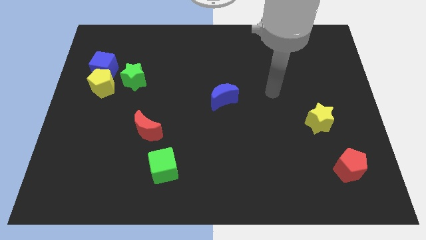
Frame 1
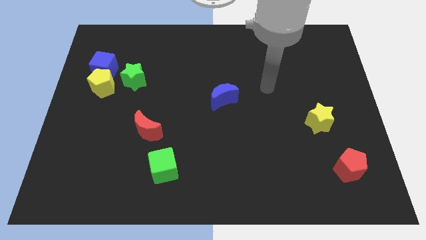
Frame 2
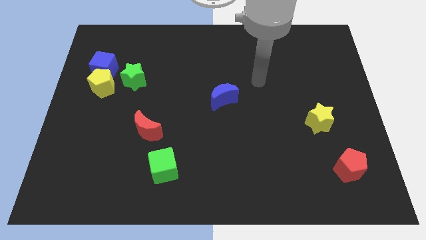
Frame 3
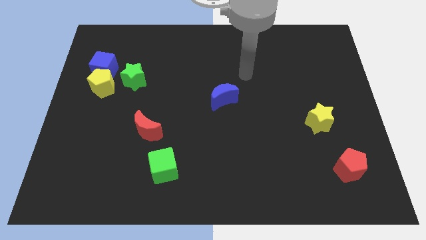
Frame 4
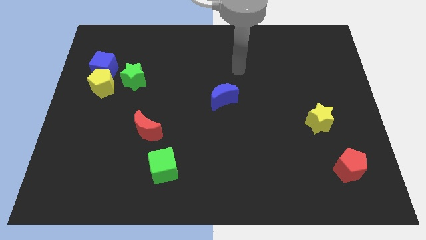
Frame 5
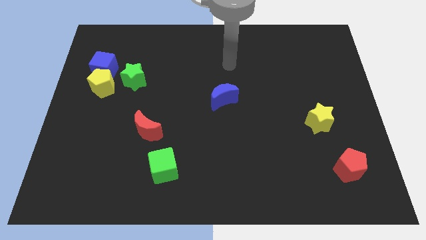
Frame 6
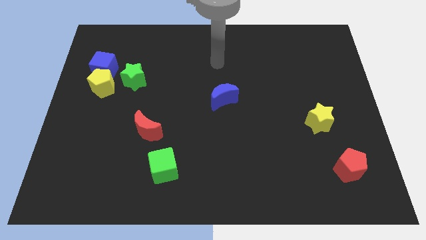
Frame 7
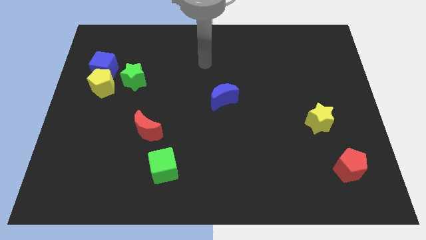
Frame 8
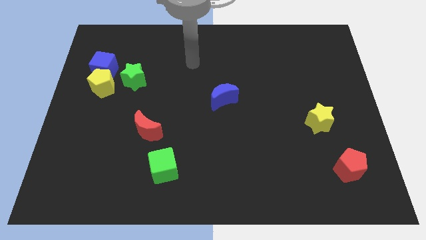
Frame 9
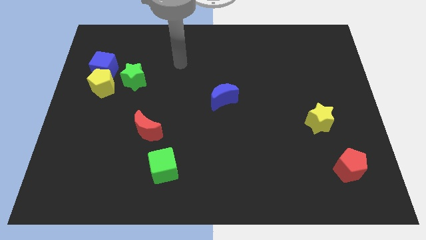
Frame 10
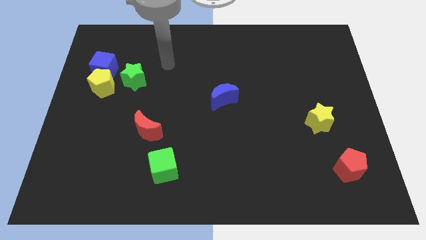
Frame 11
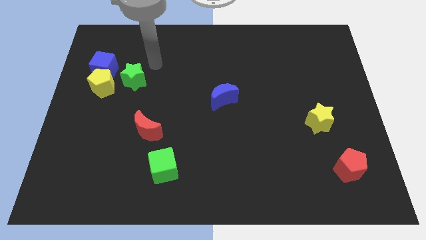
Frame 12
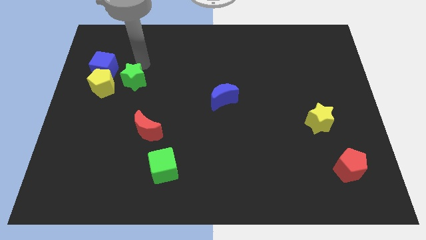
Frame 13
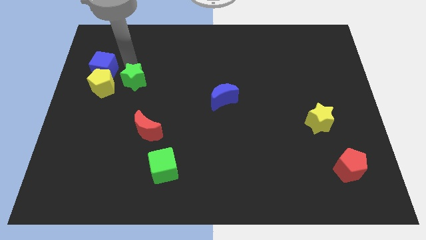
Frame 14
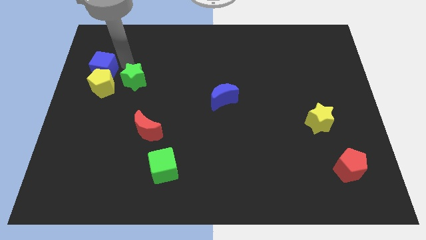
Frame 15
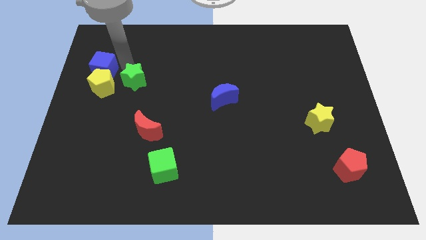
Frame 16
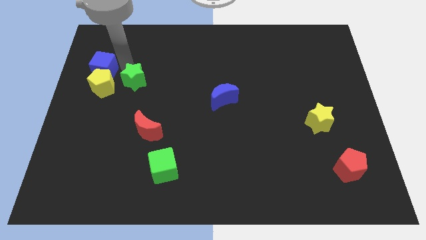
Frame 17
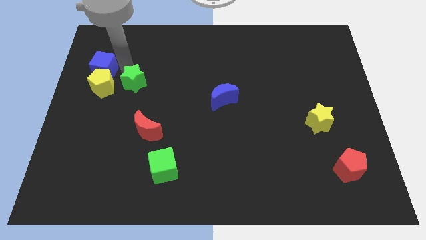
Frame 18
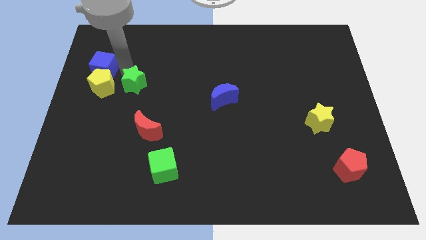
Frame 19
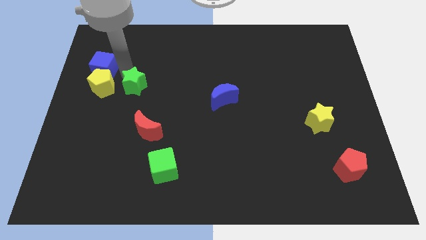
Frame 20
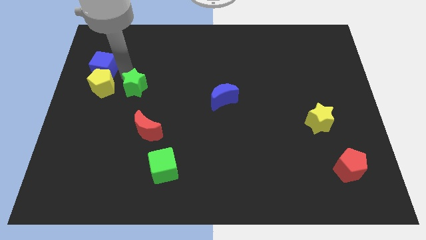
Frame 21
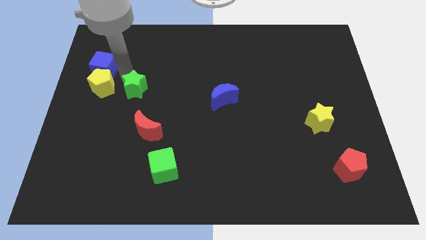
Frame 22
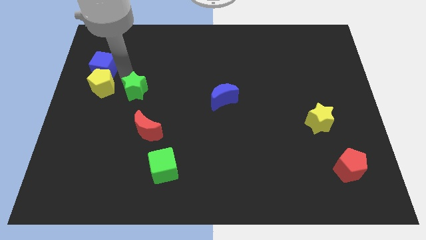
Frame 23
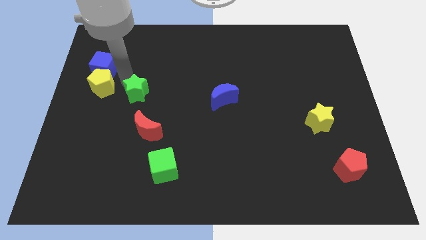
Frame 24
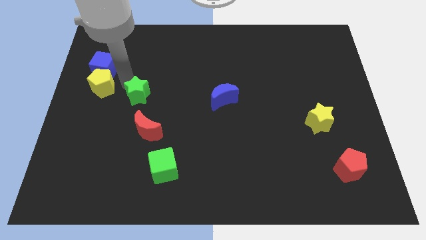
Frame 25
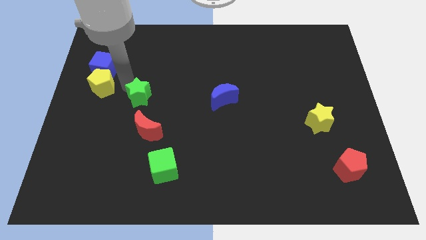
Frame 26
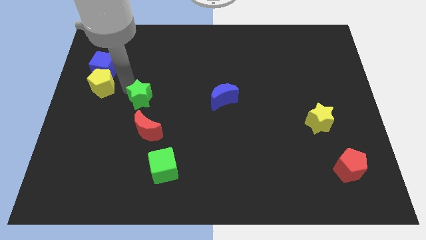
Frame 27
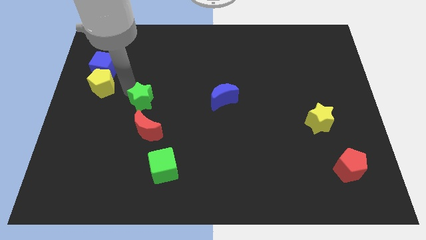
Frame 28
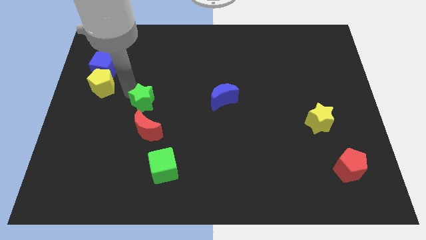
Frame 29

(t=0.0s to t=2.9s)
slightly slide the green star downwards and right diagonally

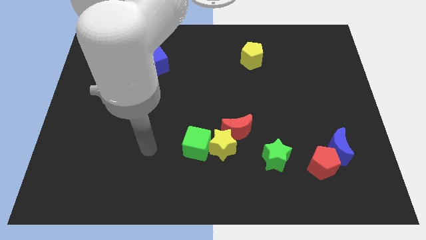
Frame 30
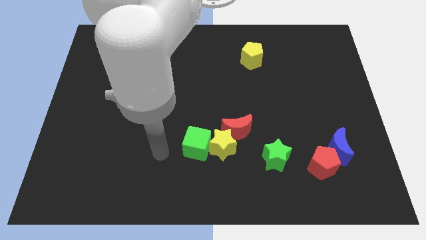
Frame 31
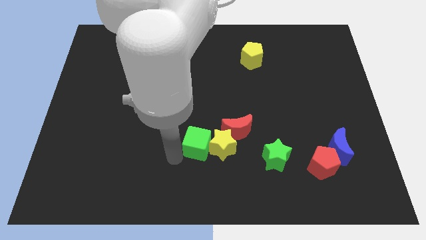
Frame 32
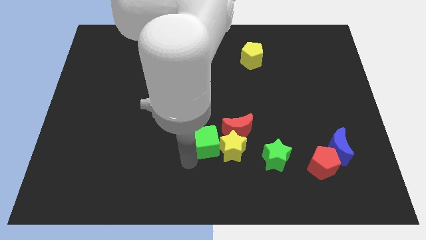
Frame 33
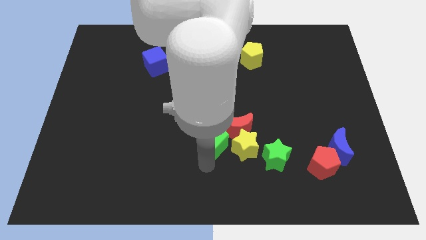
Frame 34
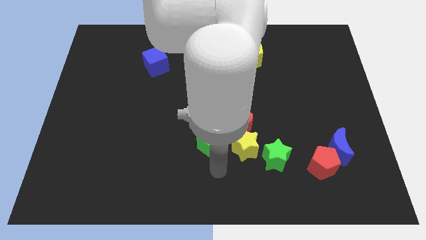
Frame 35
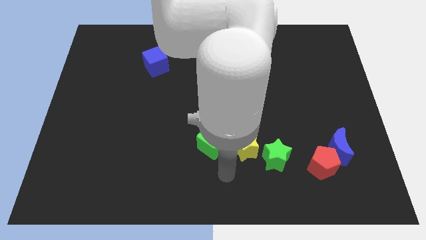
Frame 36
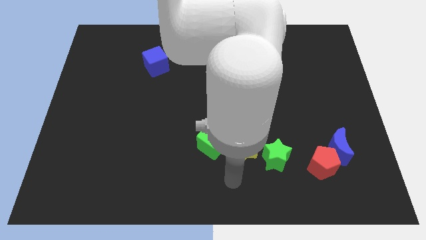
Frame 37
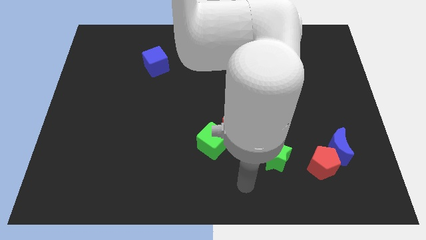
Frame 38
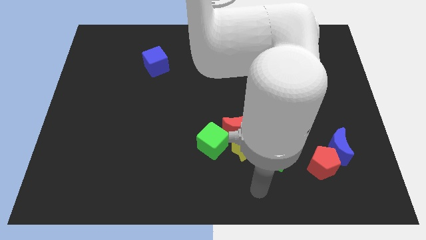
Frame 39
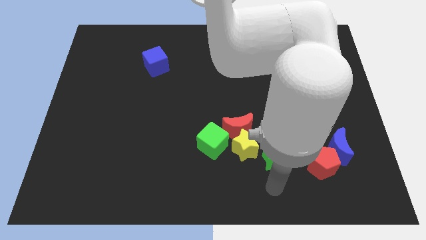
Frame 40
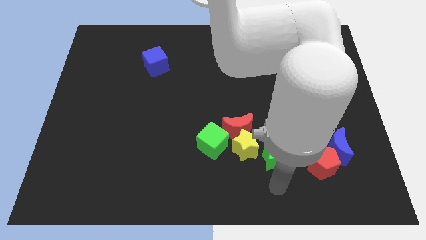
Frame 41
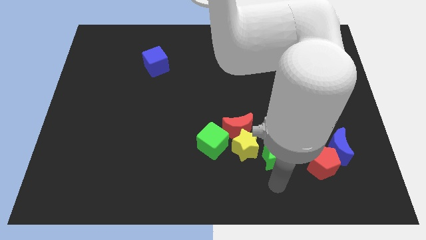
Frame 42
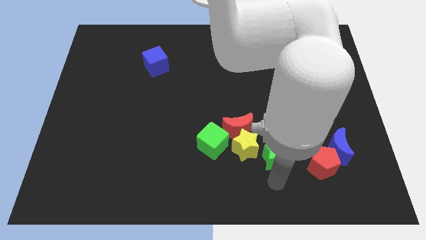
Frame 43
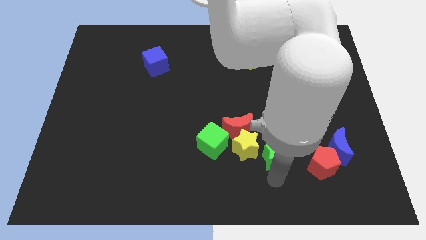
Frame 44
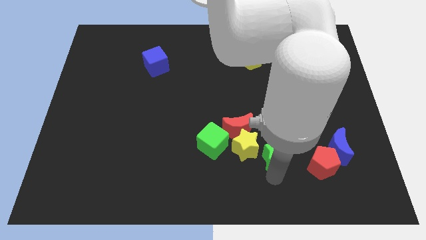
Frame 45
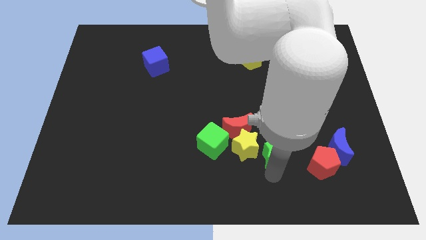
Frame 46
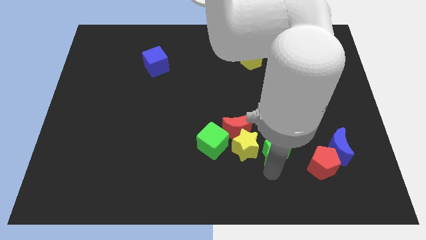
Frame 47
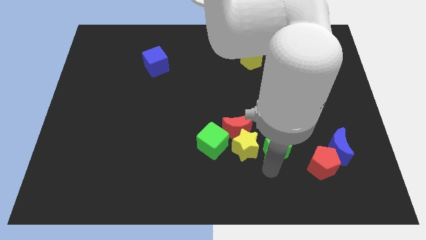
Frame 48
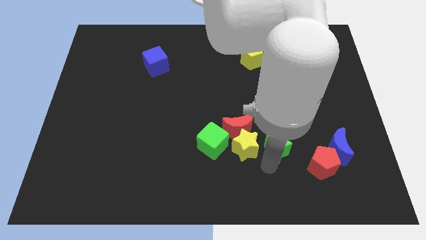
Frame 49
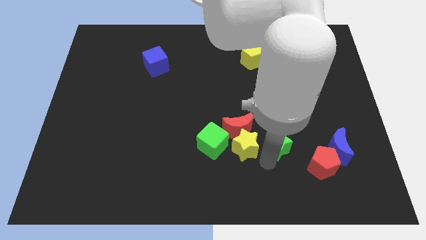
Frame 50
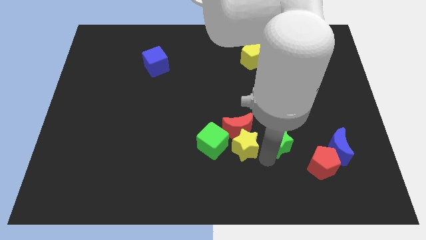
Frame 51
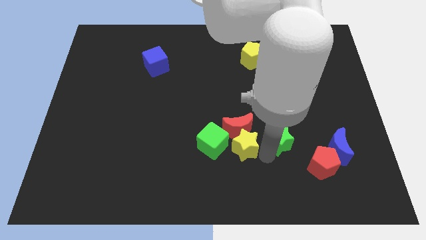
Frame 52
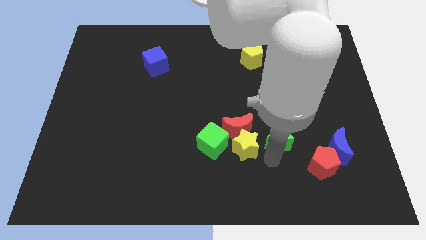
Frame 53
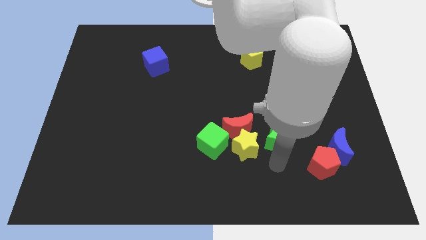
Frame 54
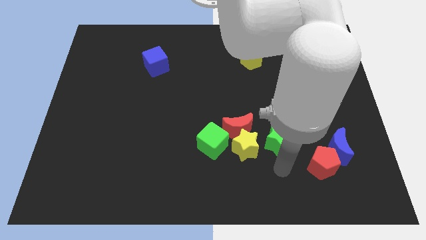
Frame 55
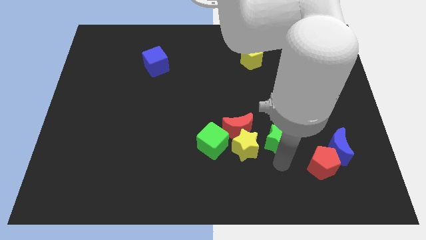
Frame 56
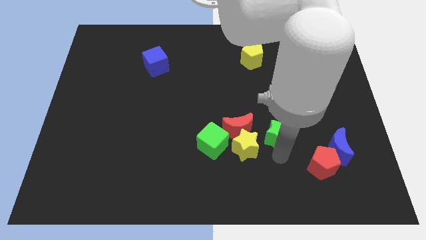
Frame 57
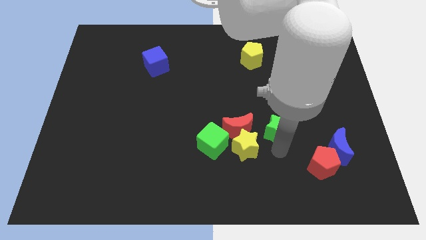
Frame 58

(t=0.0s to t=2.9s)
slide the green star a bit up

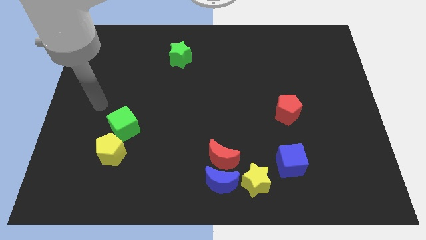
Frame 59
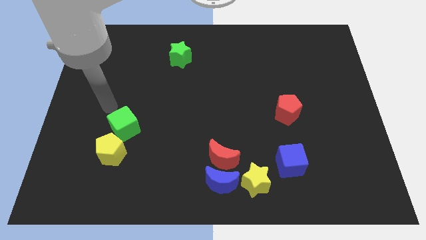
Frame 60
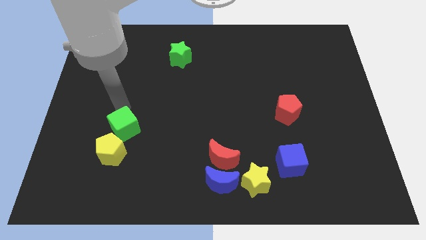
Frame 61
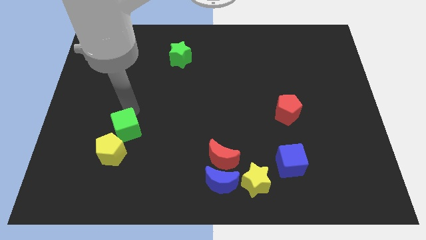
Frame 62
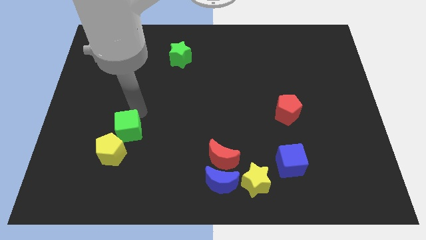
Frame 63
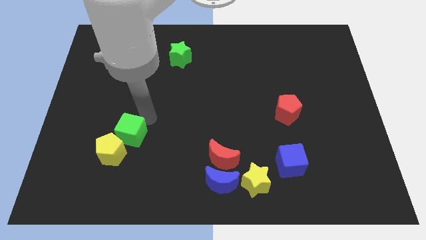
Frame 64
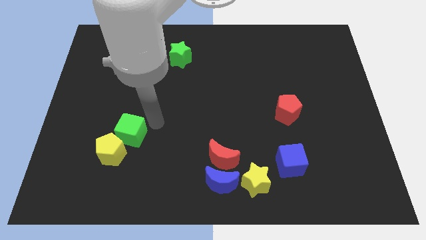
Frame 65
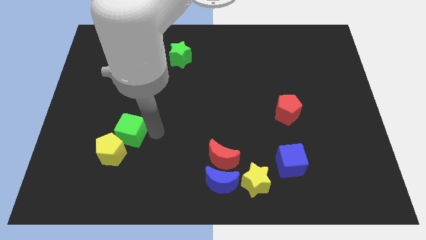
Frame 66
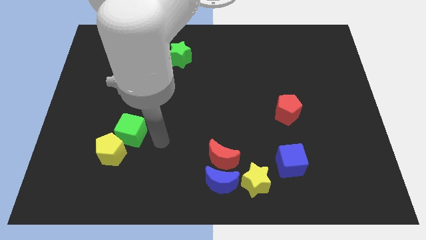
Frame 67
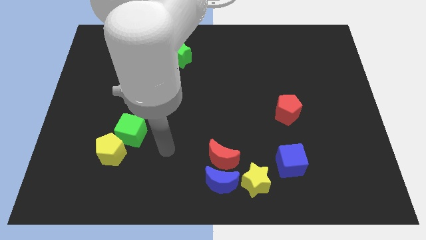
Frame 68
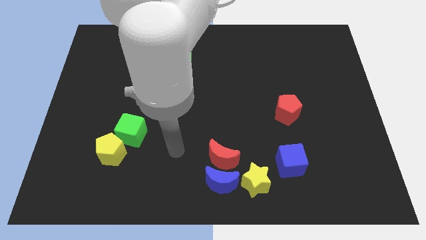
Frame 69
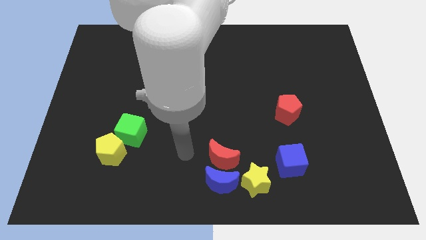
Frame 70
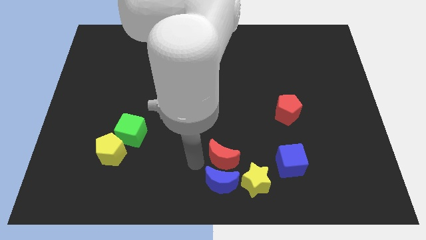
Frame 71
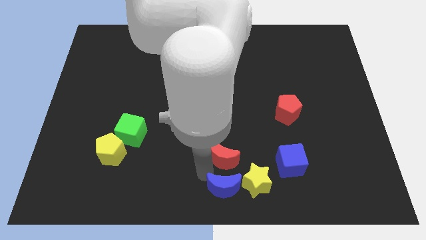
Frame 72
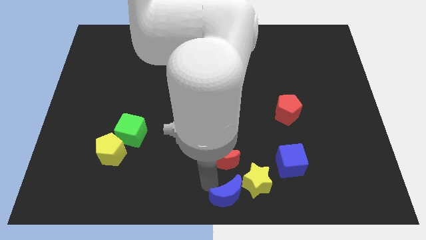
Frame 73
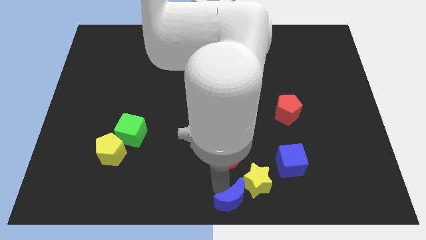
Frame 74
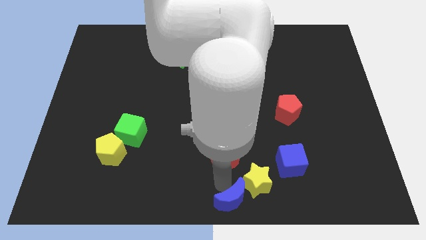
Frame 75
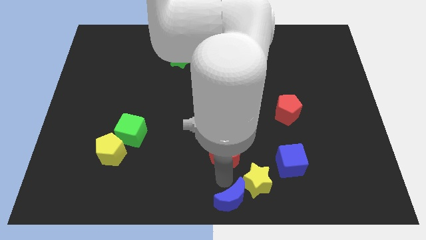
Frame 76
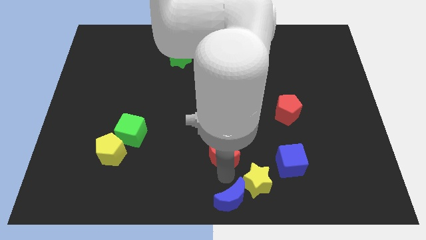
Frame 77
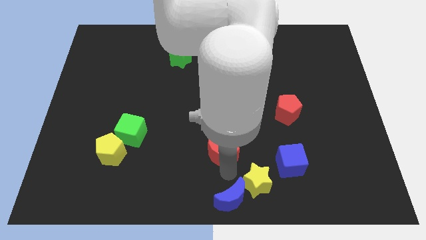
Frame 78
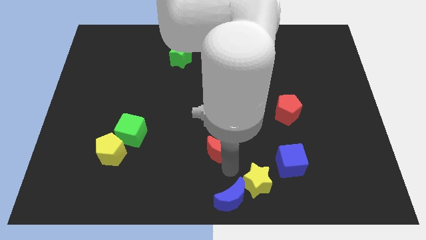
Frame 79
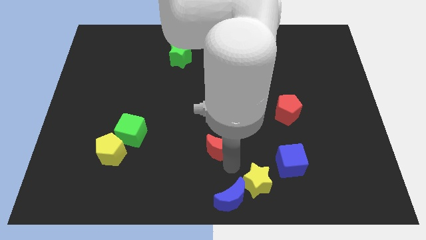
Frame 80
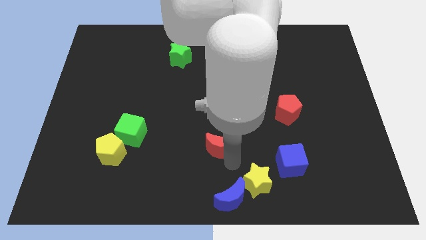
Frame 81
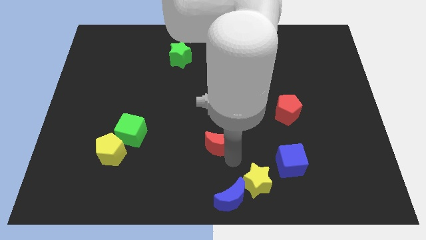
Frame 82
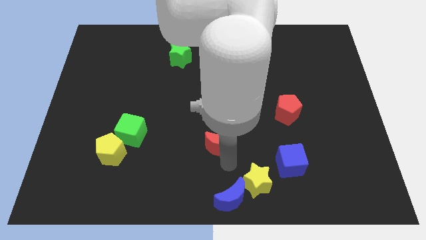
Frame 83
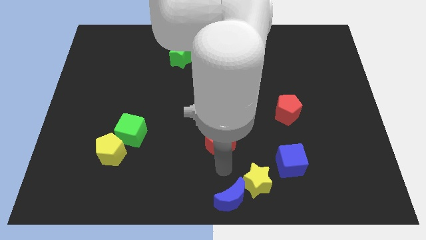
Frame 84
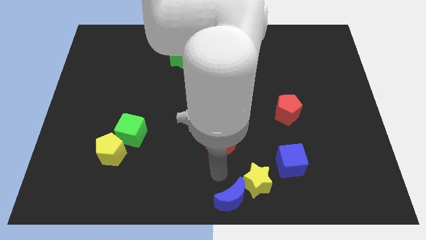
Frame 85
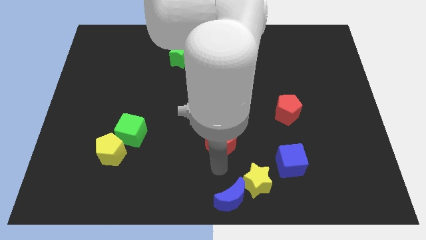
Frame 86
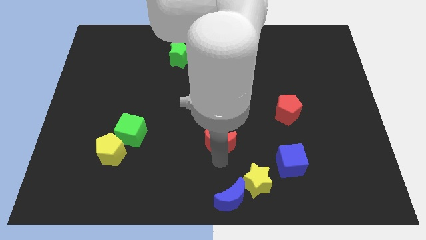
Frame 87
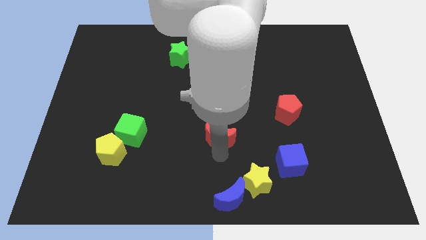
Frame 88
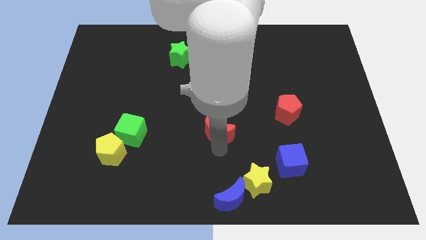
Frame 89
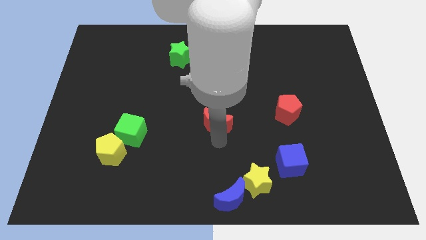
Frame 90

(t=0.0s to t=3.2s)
slightly slide the red moon up
